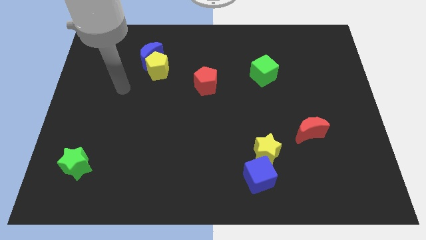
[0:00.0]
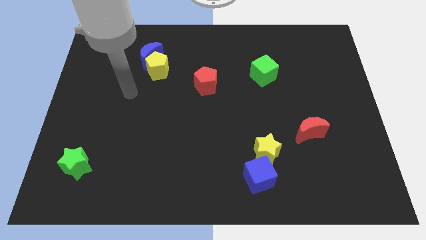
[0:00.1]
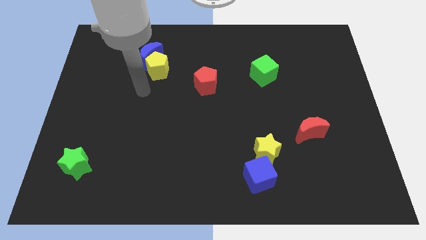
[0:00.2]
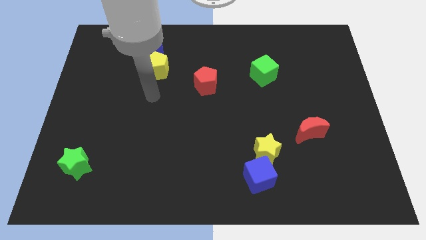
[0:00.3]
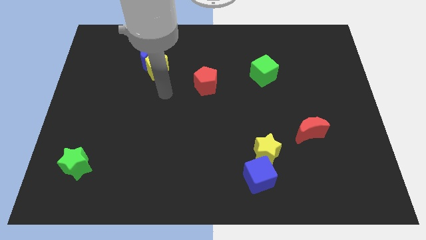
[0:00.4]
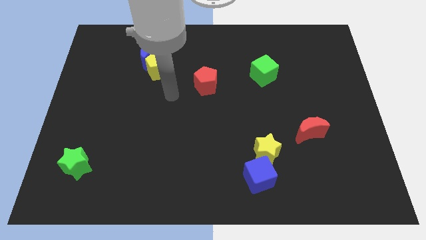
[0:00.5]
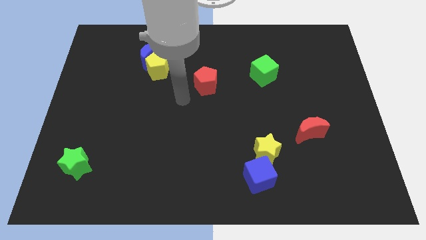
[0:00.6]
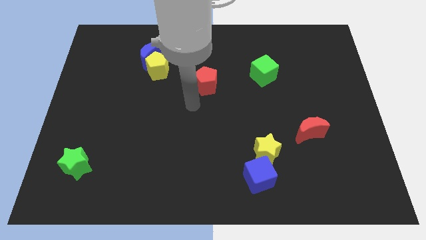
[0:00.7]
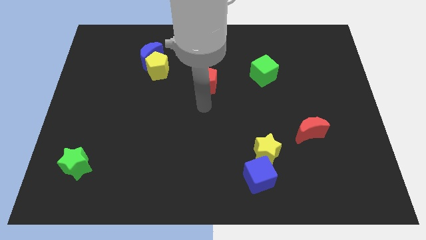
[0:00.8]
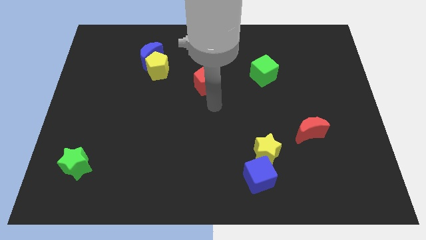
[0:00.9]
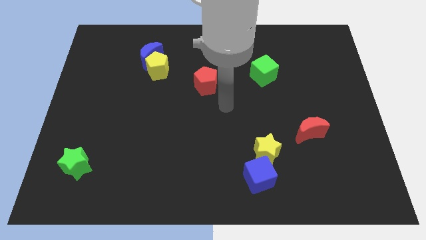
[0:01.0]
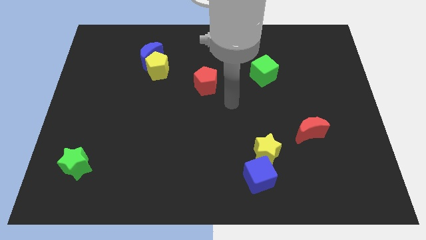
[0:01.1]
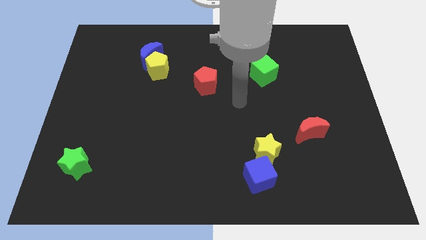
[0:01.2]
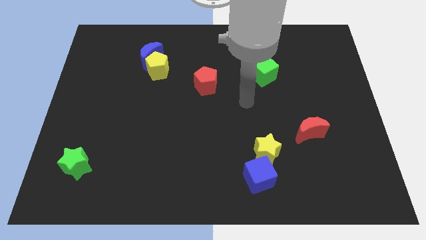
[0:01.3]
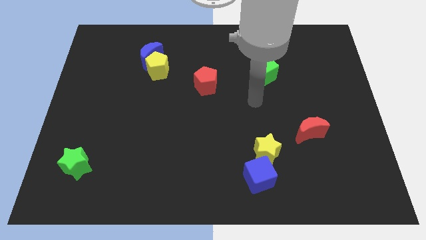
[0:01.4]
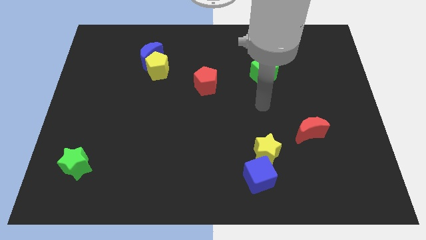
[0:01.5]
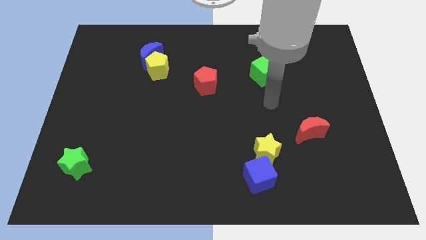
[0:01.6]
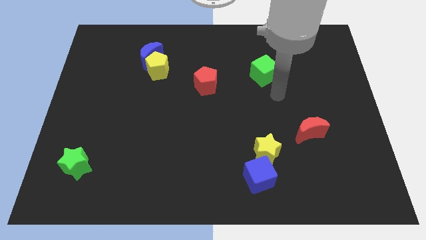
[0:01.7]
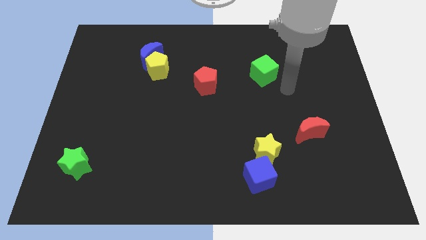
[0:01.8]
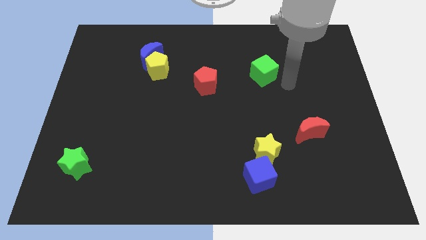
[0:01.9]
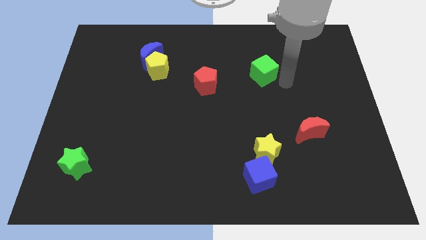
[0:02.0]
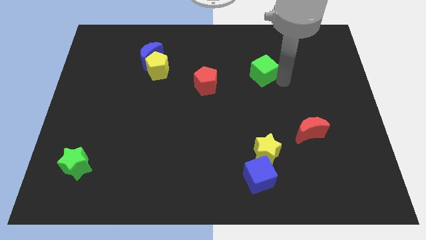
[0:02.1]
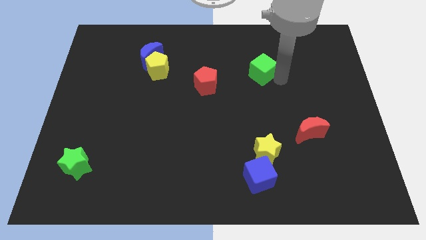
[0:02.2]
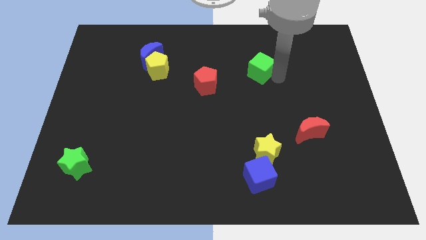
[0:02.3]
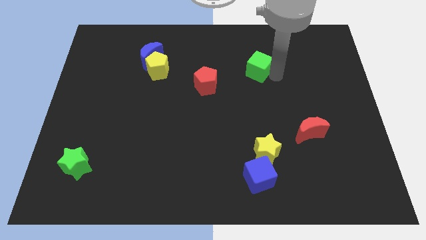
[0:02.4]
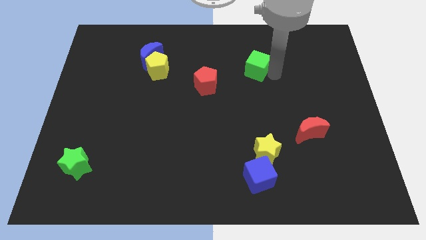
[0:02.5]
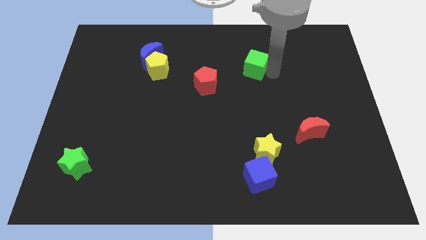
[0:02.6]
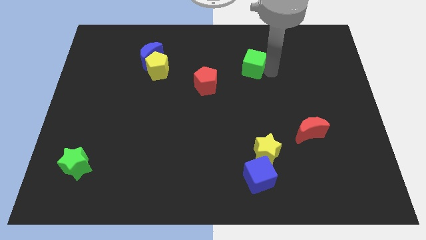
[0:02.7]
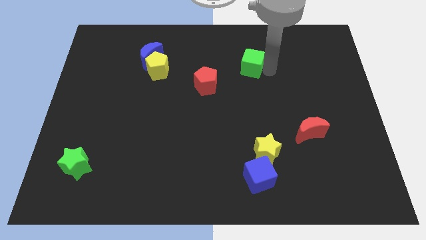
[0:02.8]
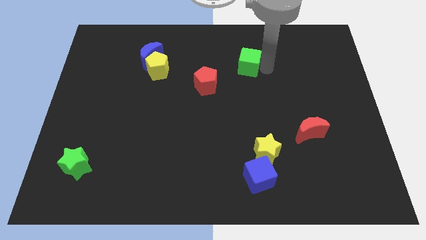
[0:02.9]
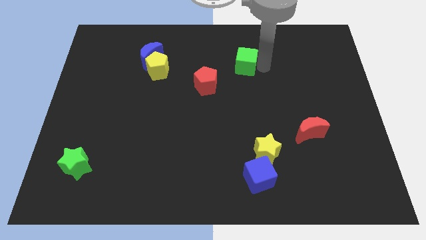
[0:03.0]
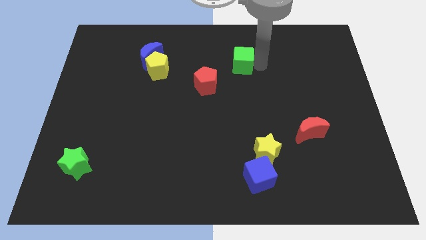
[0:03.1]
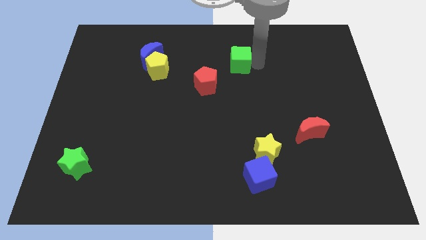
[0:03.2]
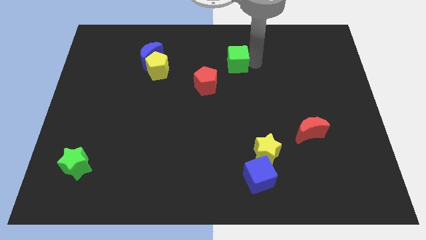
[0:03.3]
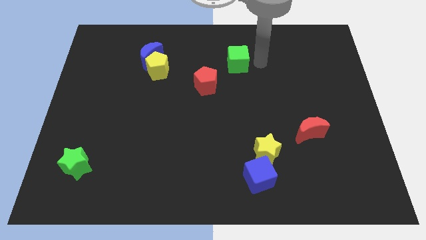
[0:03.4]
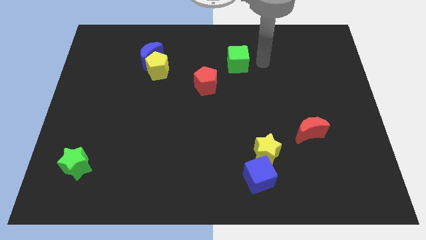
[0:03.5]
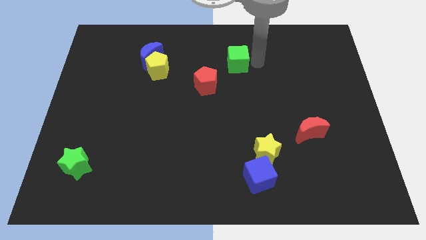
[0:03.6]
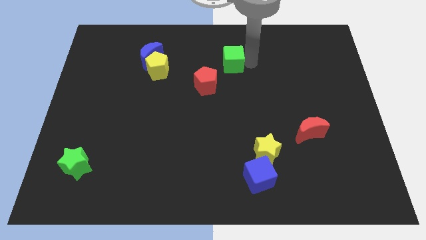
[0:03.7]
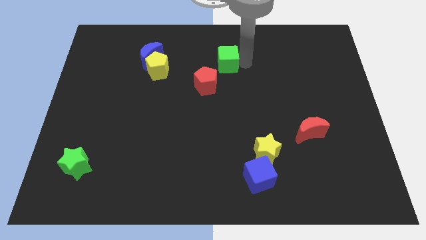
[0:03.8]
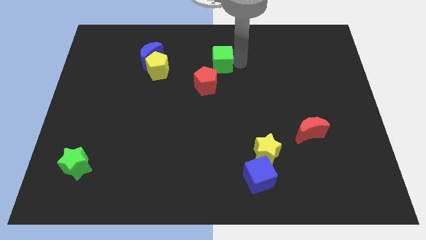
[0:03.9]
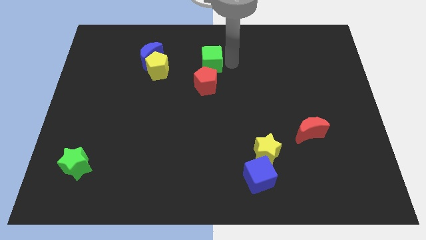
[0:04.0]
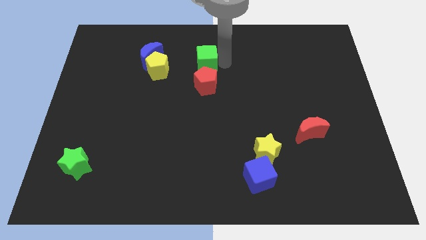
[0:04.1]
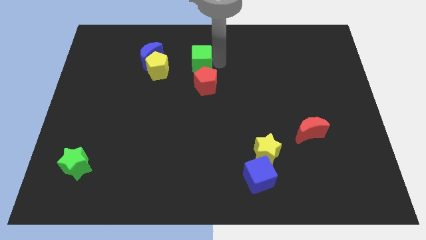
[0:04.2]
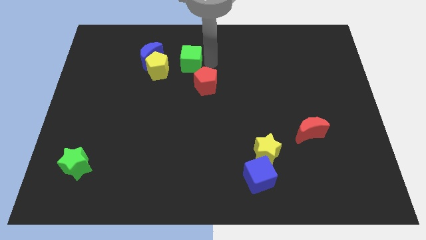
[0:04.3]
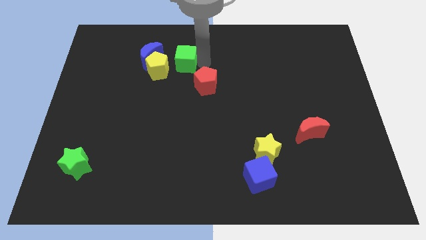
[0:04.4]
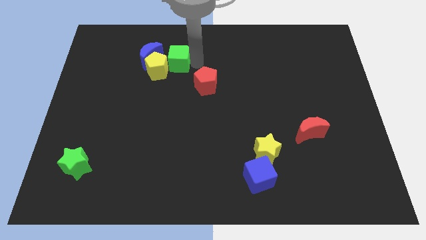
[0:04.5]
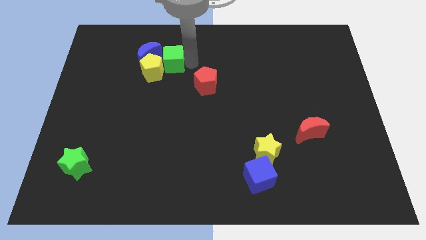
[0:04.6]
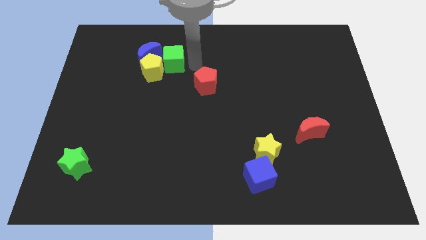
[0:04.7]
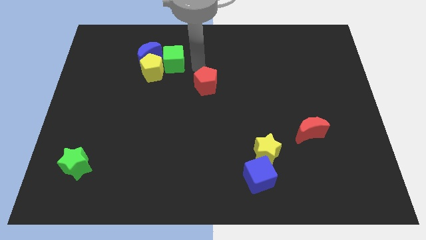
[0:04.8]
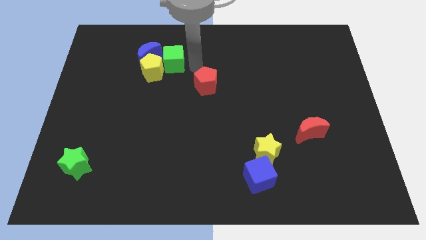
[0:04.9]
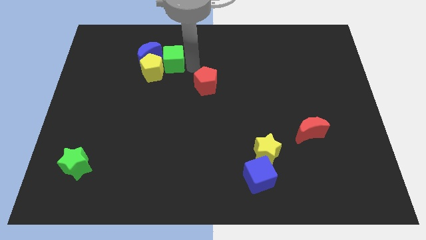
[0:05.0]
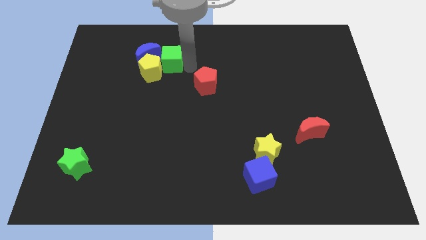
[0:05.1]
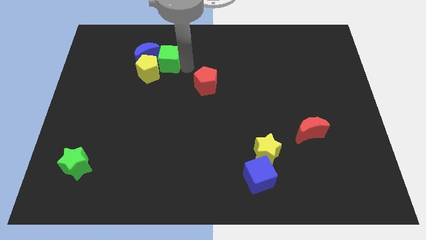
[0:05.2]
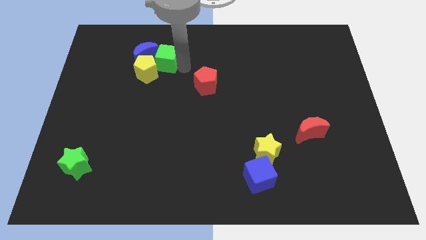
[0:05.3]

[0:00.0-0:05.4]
slide the green cube next to the blue moon

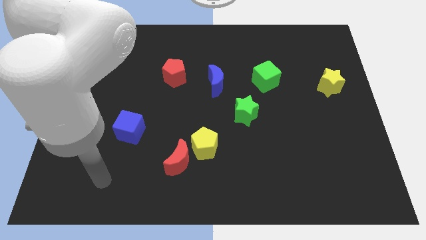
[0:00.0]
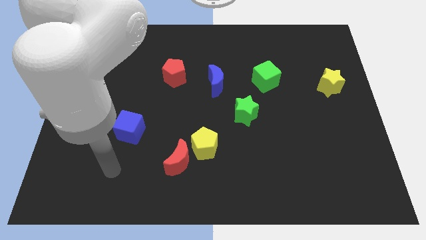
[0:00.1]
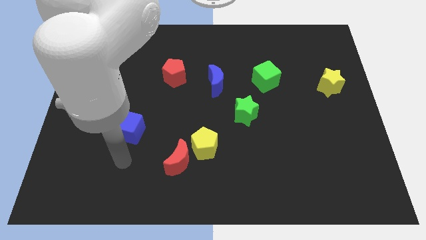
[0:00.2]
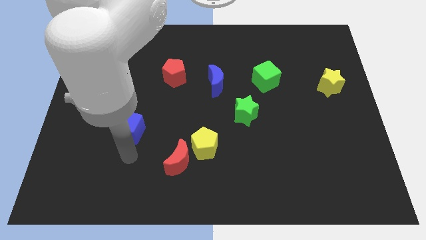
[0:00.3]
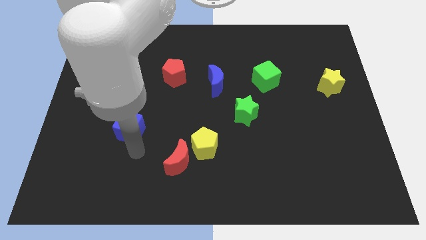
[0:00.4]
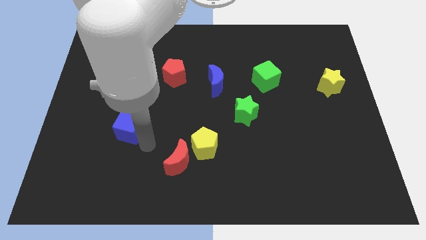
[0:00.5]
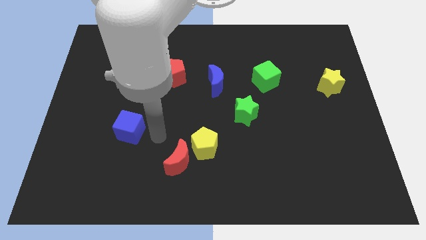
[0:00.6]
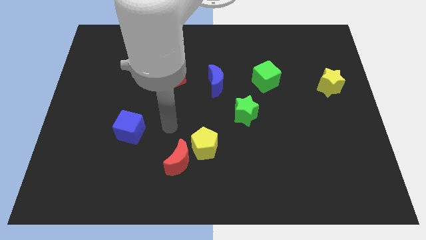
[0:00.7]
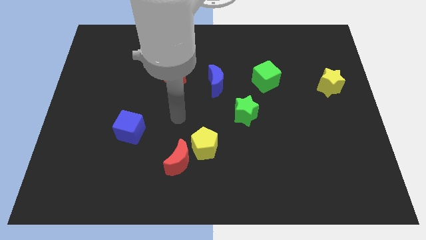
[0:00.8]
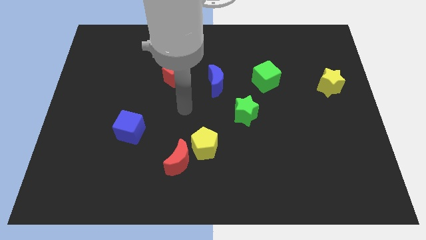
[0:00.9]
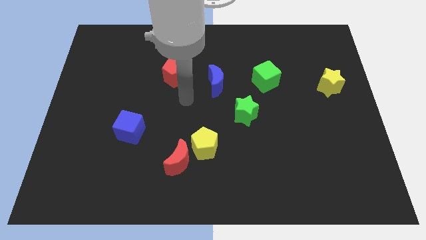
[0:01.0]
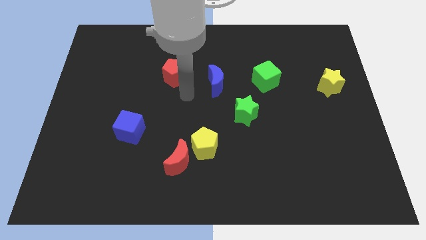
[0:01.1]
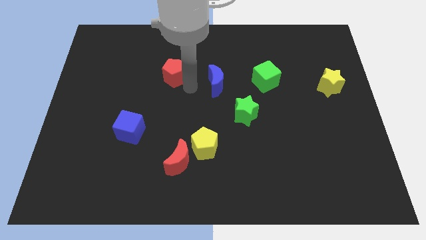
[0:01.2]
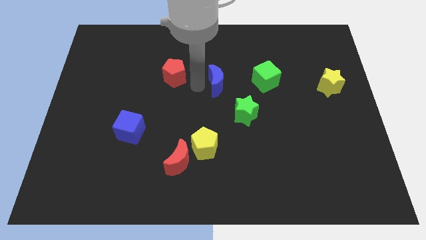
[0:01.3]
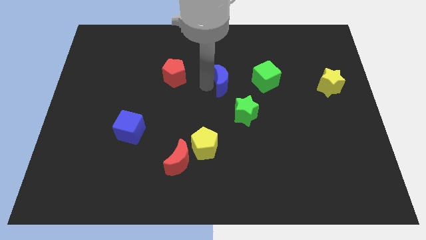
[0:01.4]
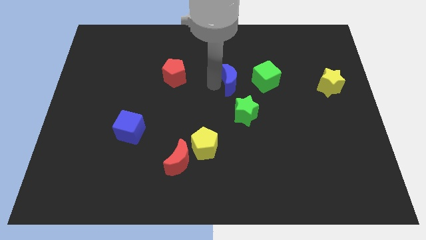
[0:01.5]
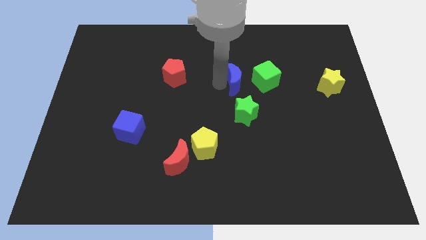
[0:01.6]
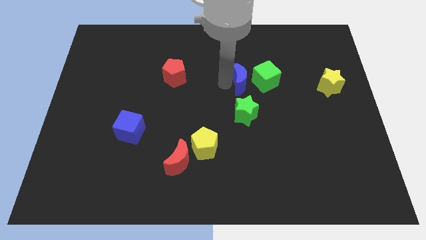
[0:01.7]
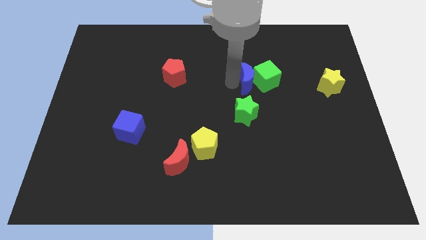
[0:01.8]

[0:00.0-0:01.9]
slide the blue moon next to the green cube
